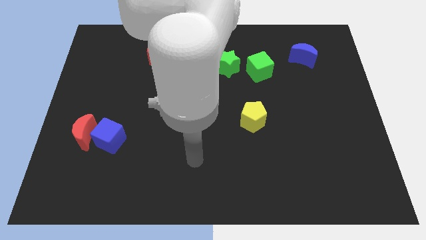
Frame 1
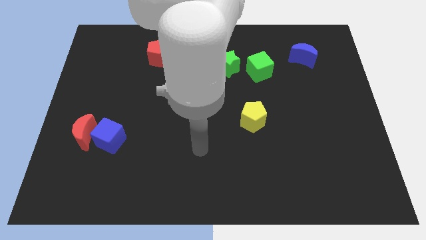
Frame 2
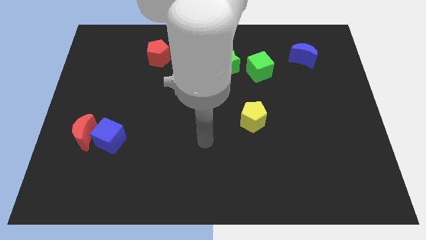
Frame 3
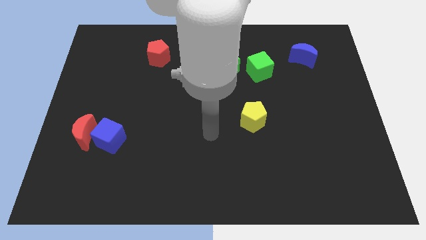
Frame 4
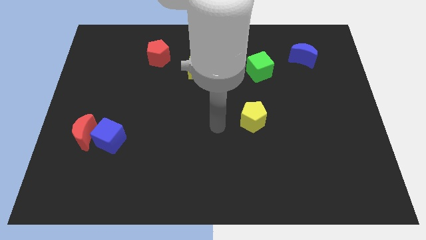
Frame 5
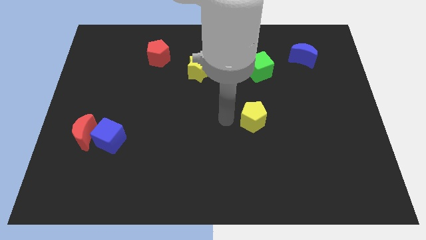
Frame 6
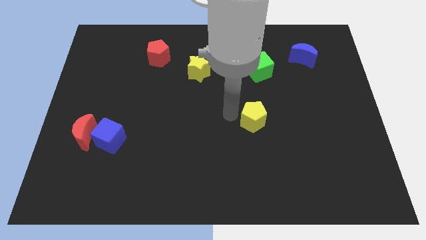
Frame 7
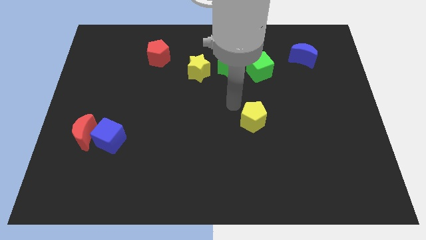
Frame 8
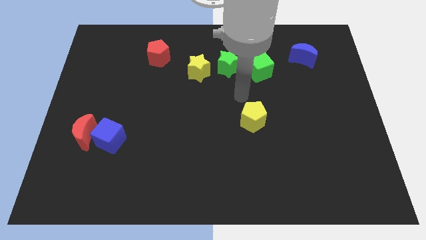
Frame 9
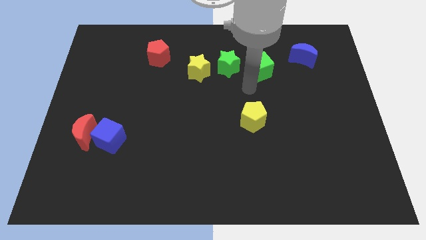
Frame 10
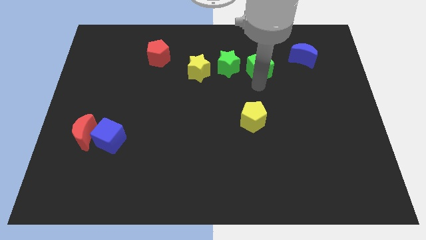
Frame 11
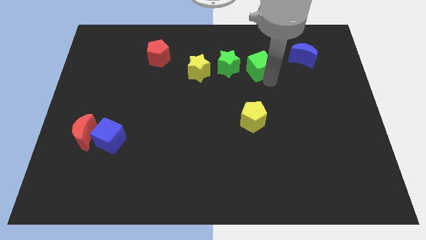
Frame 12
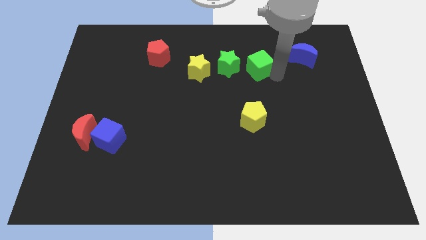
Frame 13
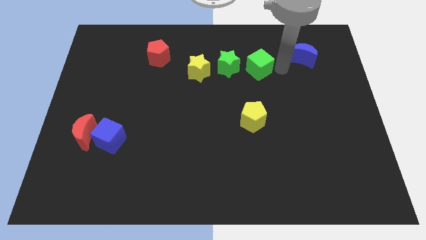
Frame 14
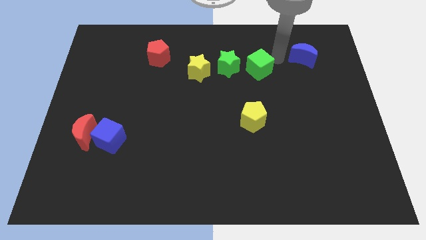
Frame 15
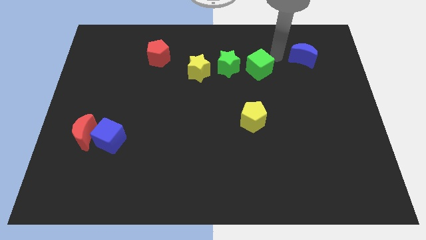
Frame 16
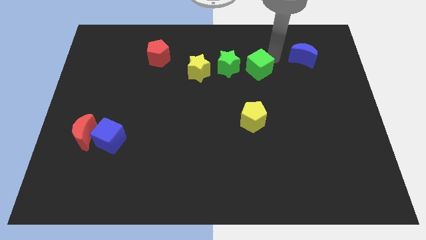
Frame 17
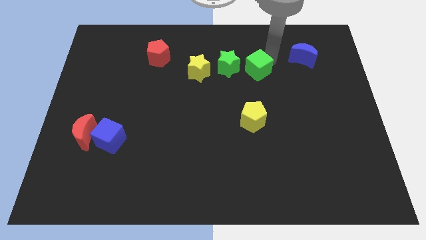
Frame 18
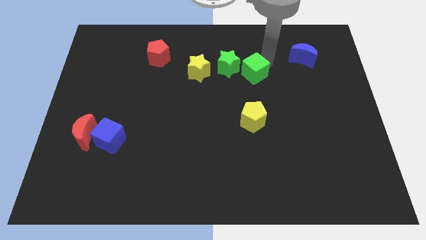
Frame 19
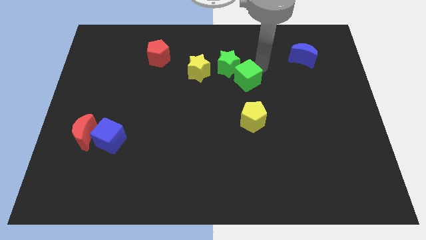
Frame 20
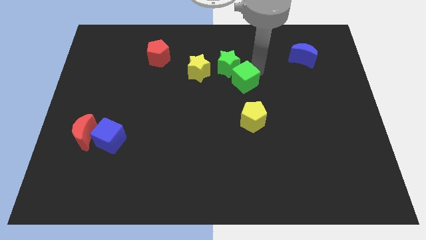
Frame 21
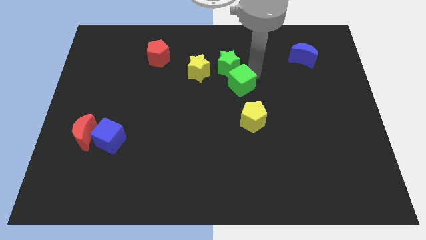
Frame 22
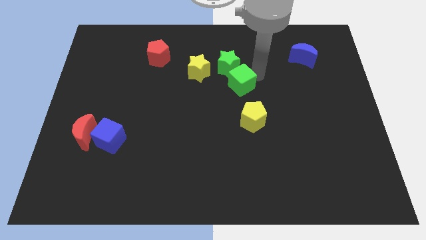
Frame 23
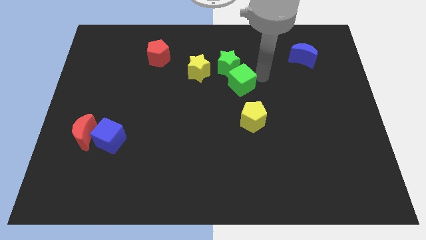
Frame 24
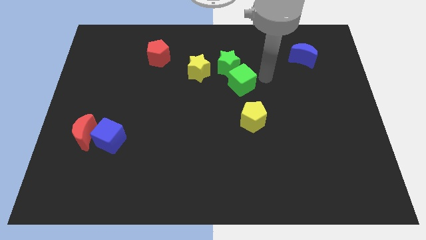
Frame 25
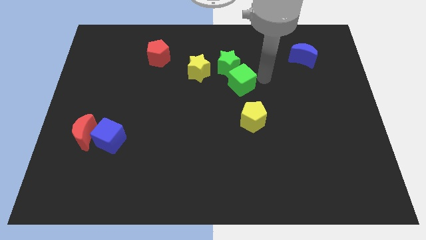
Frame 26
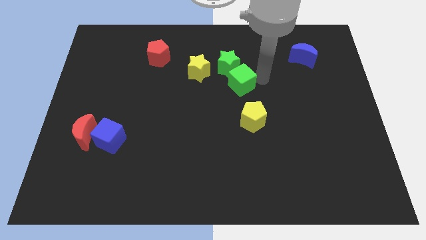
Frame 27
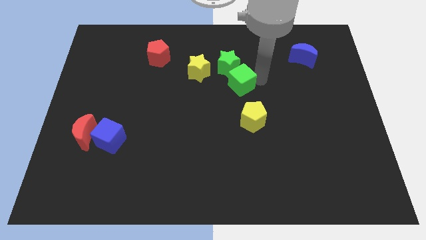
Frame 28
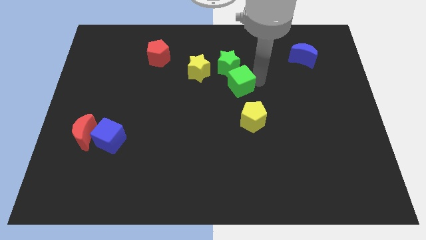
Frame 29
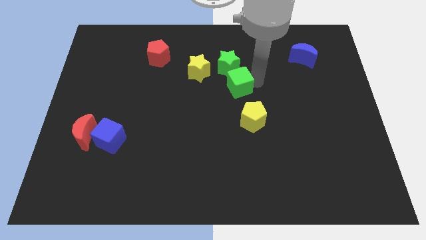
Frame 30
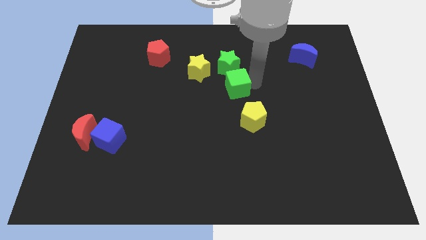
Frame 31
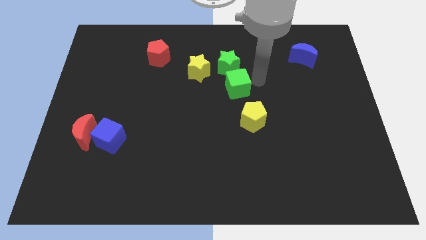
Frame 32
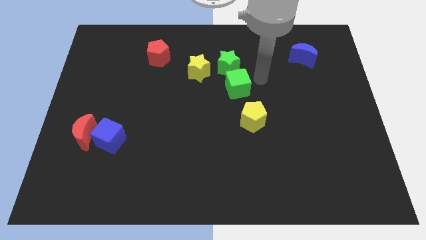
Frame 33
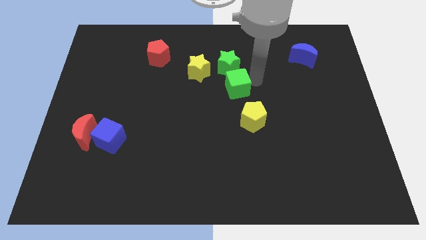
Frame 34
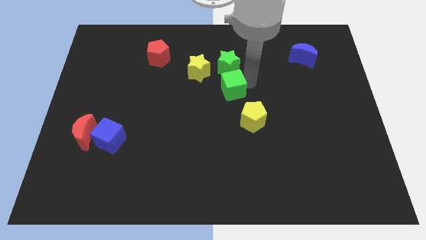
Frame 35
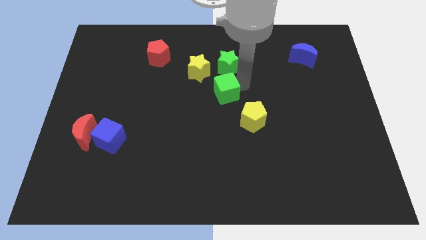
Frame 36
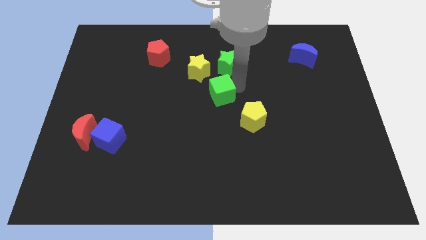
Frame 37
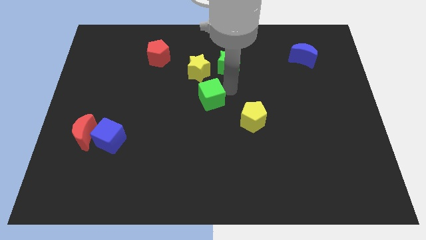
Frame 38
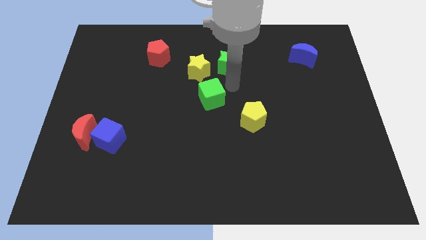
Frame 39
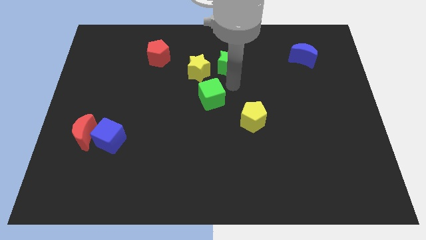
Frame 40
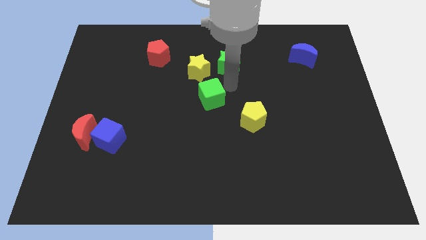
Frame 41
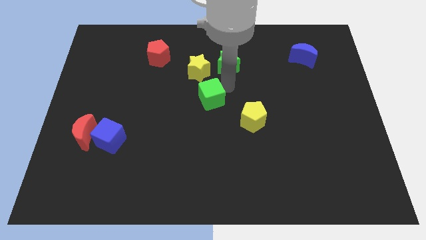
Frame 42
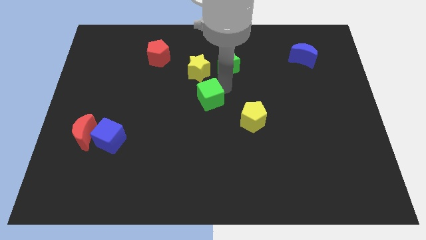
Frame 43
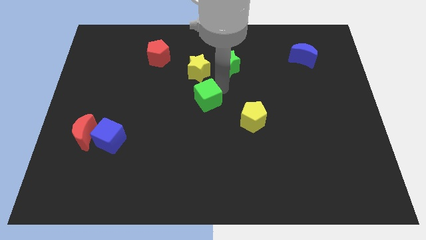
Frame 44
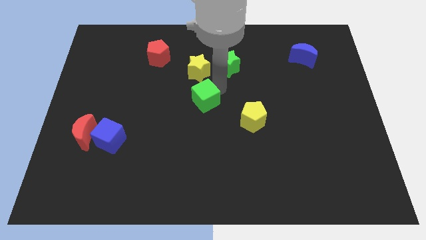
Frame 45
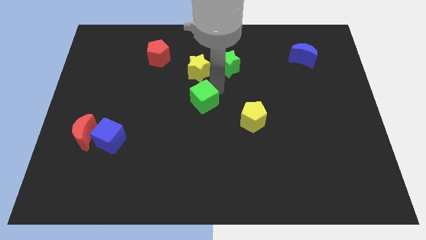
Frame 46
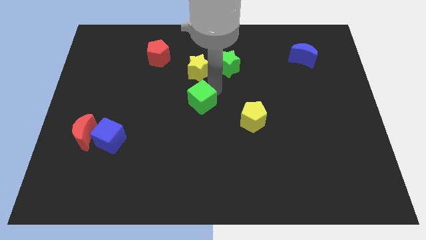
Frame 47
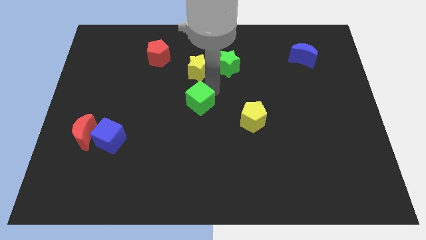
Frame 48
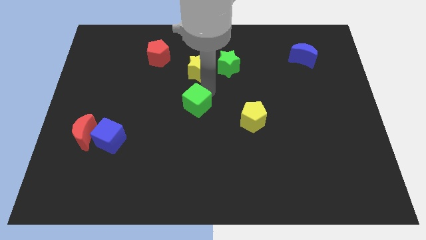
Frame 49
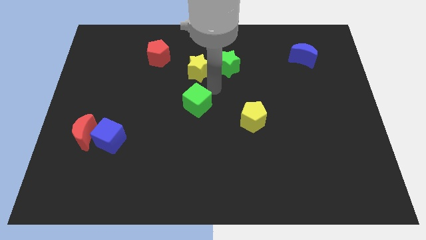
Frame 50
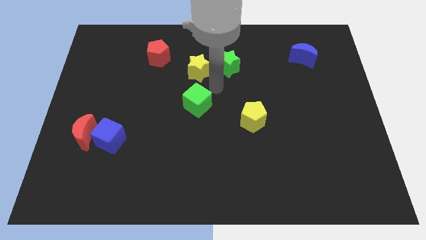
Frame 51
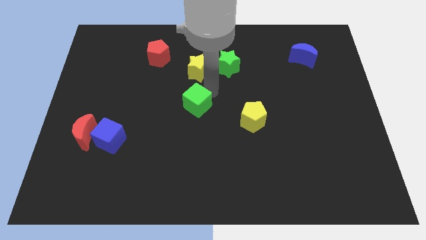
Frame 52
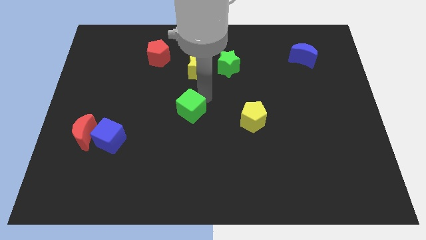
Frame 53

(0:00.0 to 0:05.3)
slide the green cube downwards and to the left diagonally

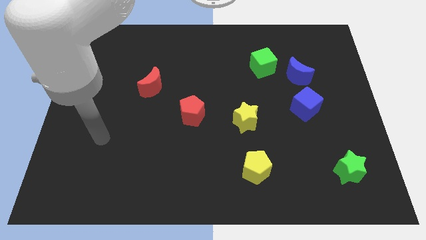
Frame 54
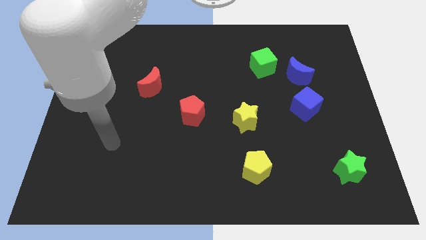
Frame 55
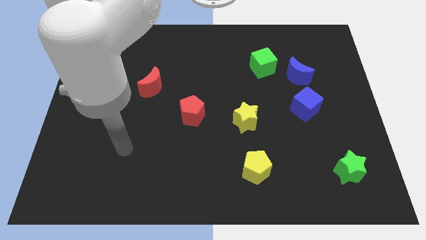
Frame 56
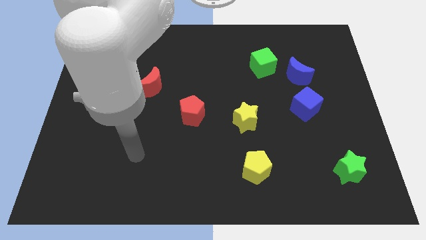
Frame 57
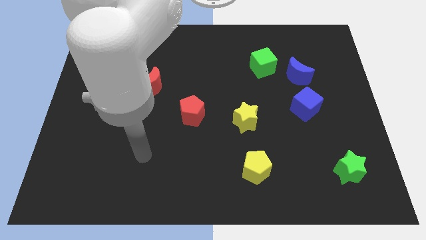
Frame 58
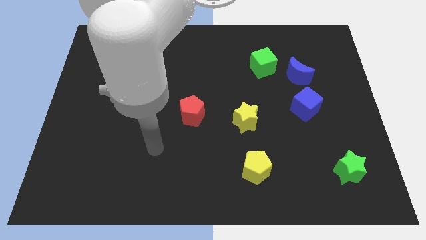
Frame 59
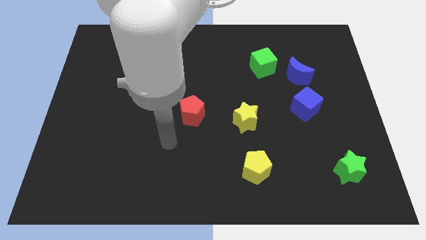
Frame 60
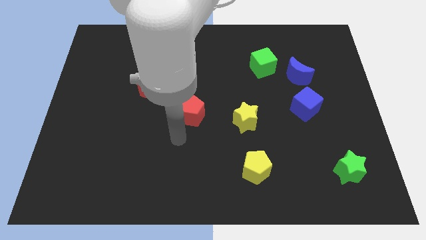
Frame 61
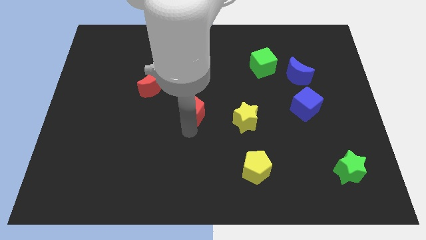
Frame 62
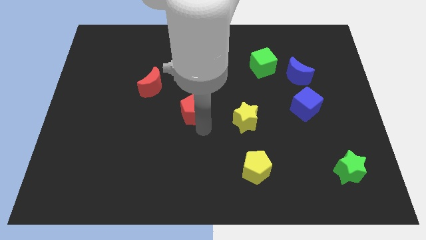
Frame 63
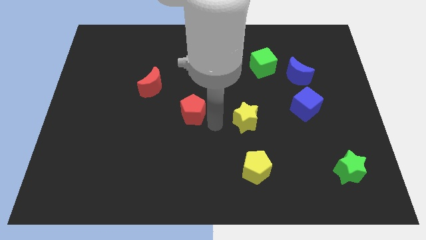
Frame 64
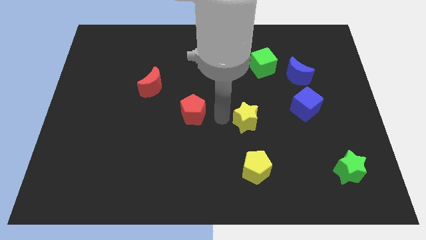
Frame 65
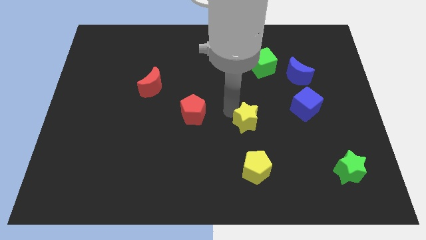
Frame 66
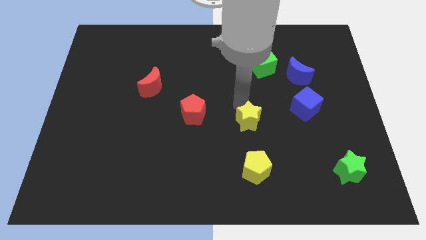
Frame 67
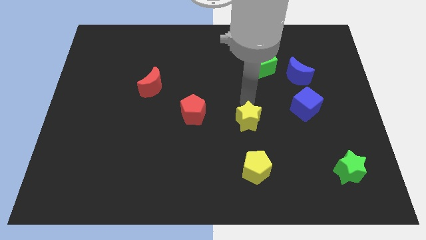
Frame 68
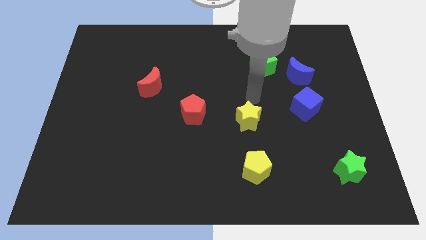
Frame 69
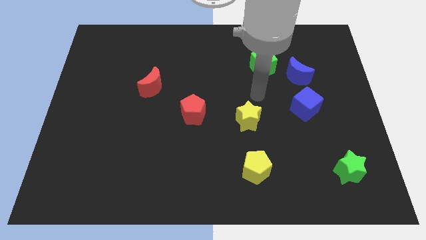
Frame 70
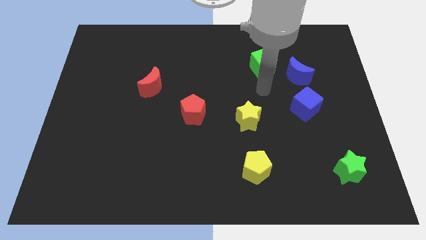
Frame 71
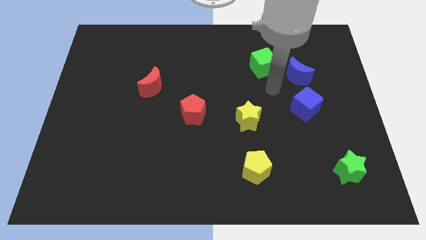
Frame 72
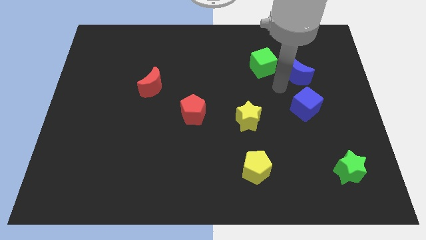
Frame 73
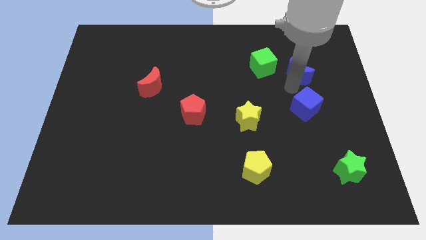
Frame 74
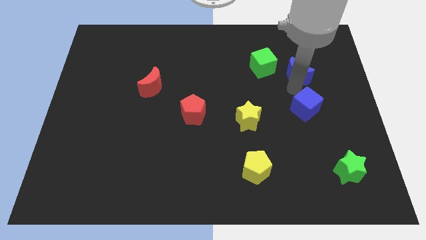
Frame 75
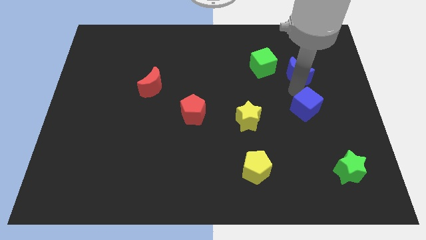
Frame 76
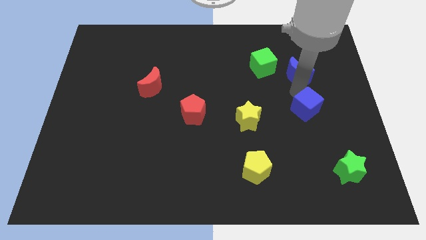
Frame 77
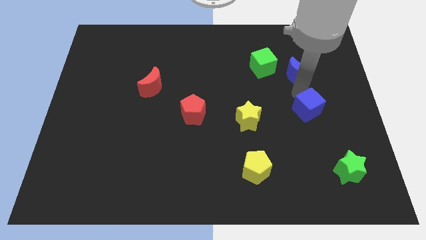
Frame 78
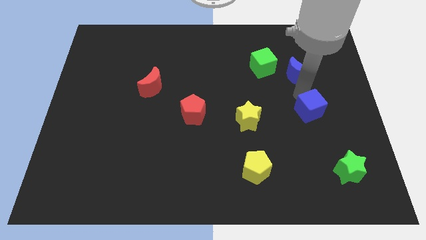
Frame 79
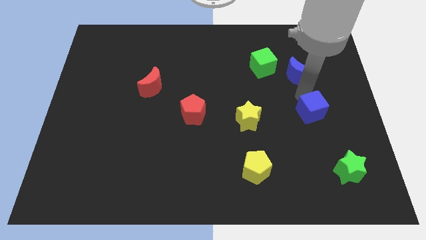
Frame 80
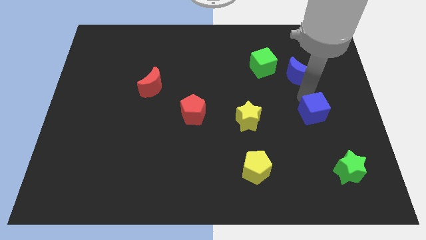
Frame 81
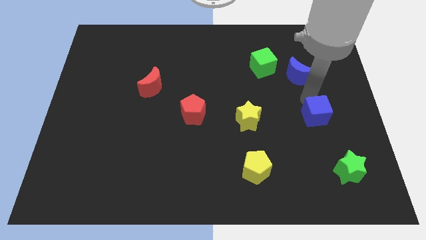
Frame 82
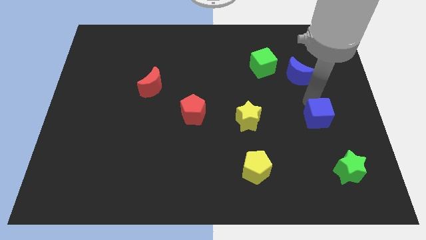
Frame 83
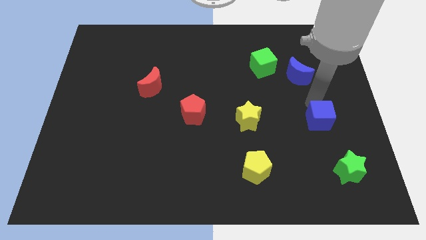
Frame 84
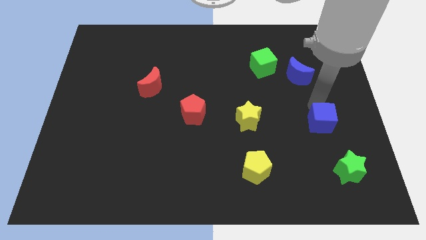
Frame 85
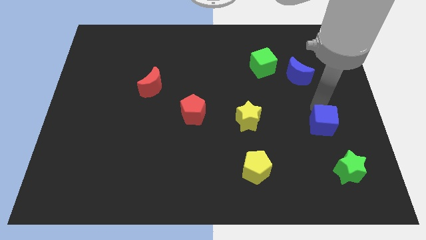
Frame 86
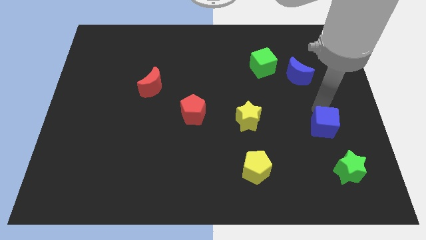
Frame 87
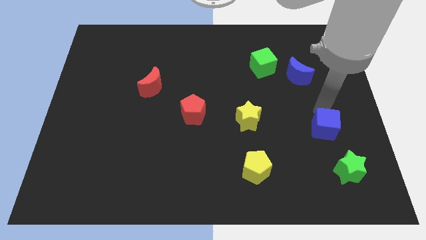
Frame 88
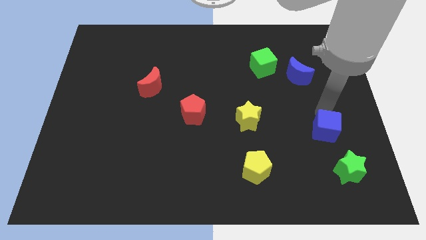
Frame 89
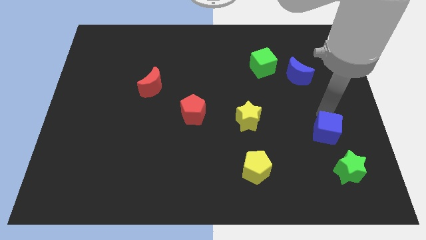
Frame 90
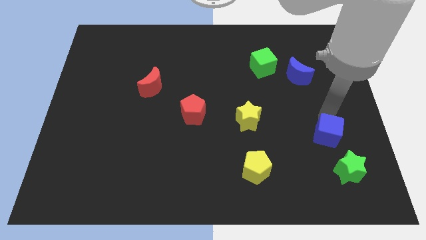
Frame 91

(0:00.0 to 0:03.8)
slide the blue cube downwards slightly
